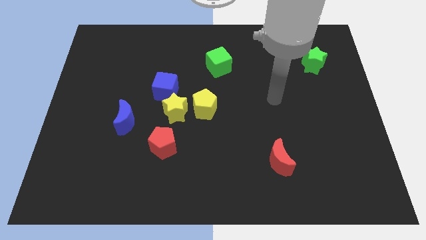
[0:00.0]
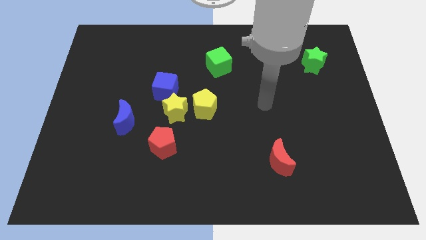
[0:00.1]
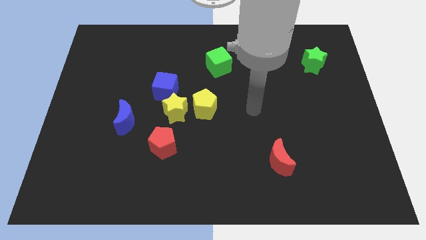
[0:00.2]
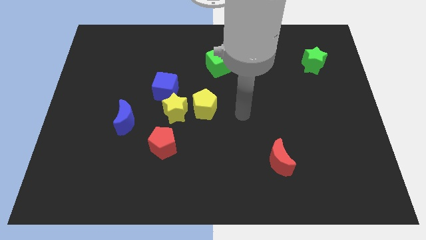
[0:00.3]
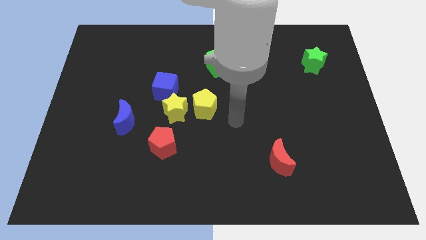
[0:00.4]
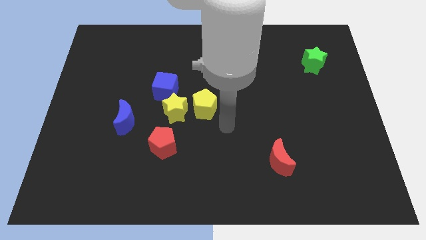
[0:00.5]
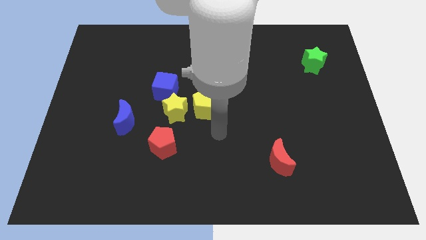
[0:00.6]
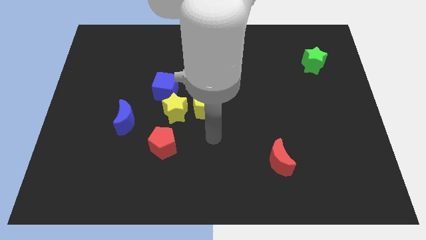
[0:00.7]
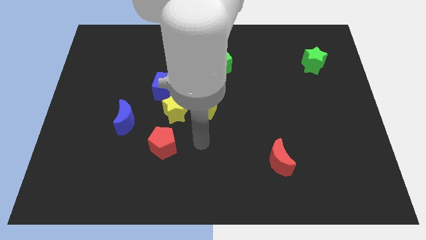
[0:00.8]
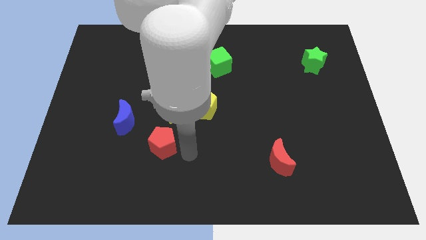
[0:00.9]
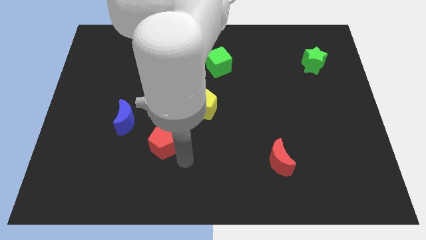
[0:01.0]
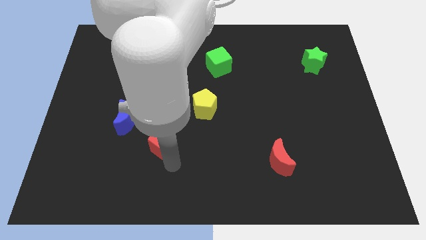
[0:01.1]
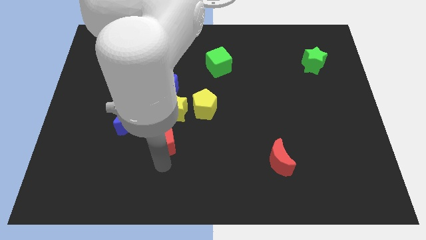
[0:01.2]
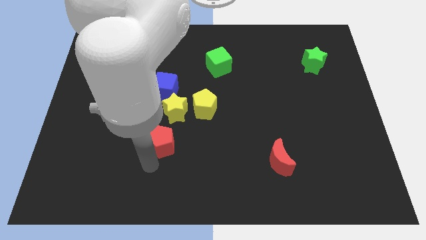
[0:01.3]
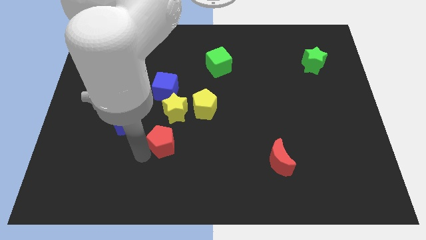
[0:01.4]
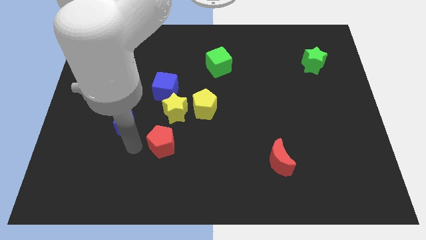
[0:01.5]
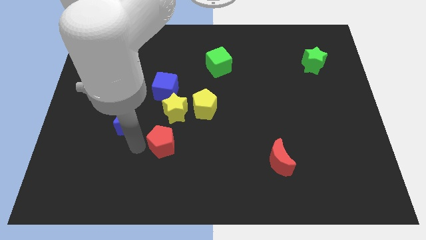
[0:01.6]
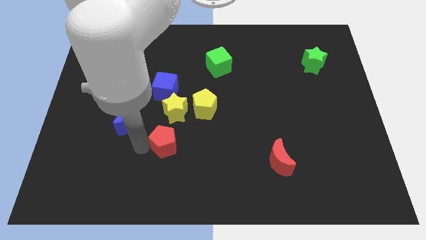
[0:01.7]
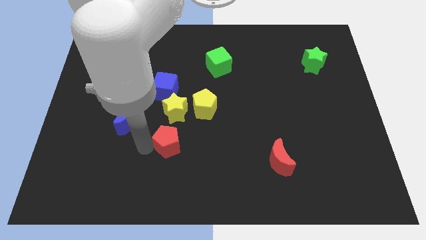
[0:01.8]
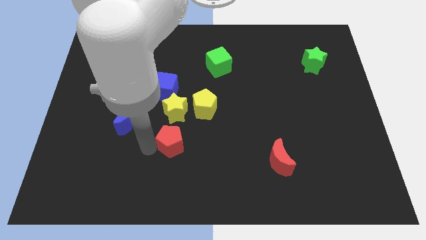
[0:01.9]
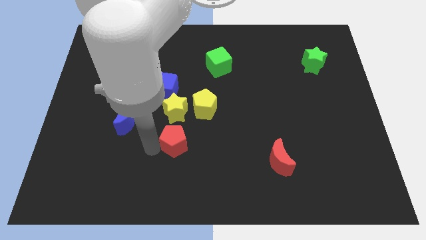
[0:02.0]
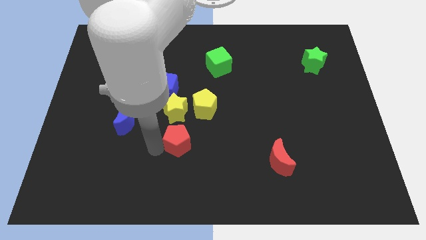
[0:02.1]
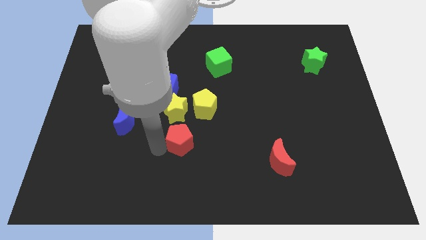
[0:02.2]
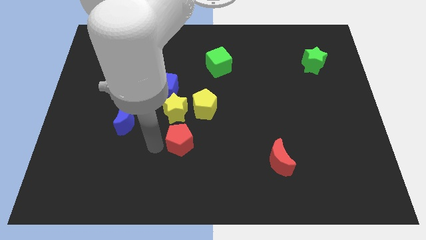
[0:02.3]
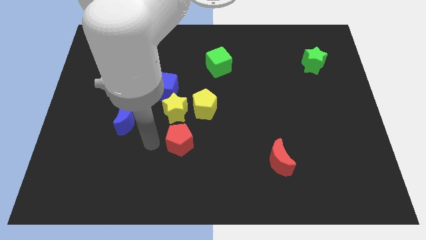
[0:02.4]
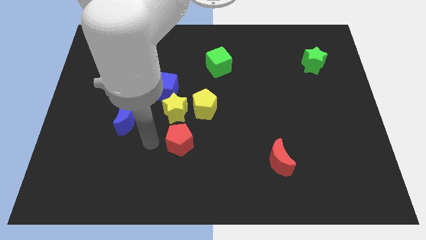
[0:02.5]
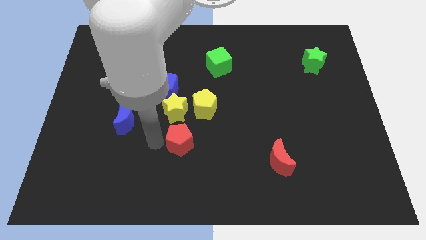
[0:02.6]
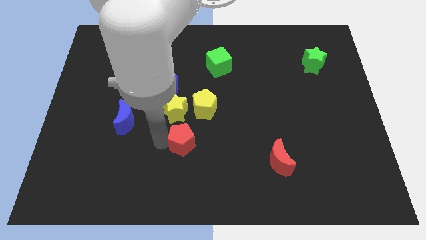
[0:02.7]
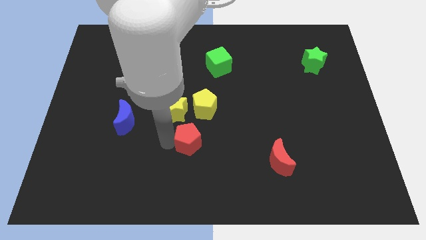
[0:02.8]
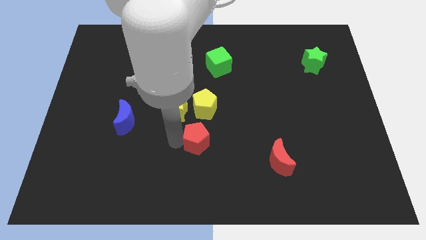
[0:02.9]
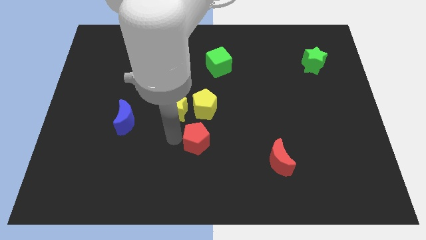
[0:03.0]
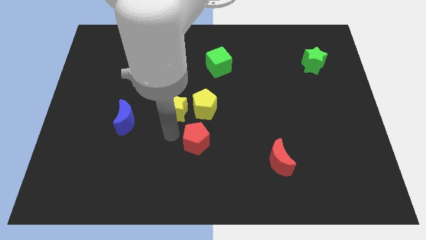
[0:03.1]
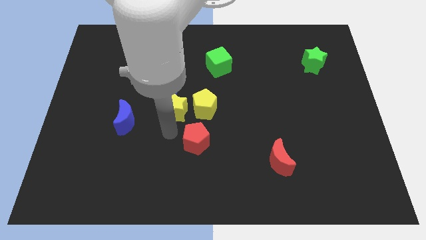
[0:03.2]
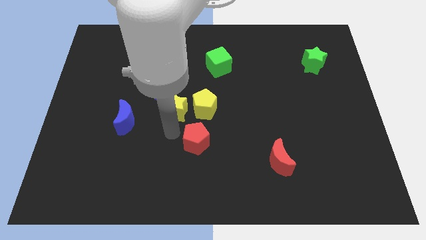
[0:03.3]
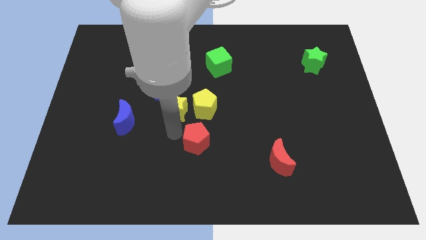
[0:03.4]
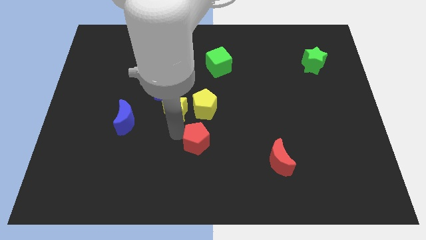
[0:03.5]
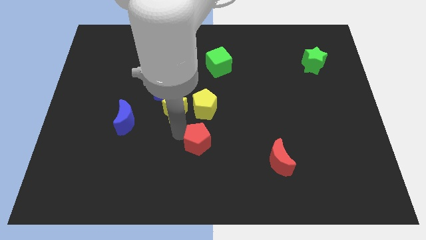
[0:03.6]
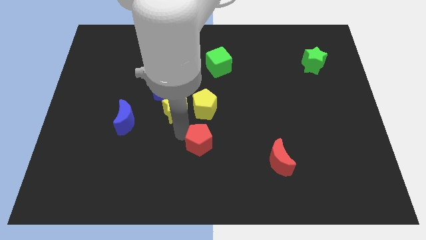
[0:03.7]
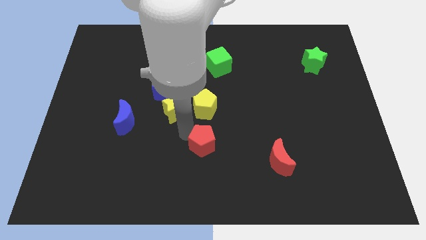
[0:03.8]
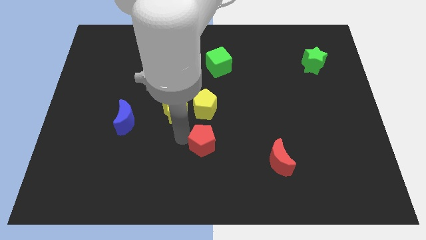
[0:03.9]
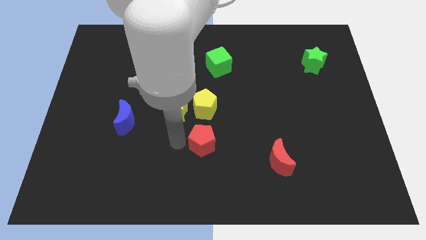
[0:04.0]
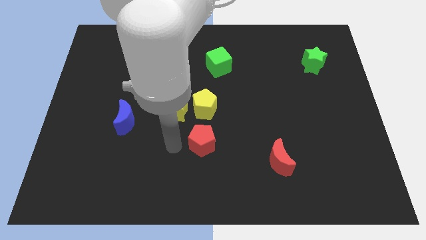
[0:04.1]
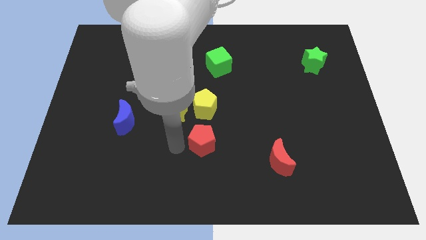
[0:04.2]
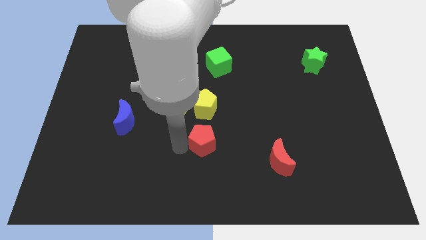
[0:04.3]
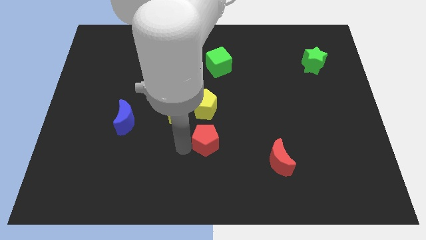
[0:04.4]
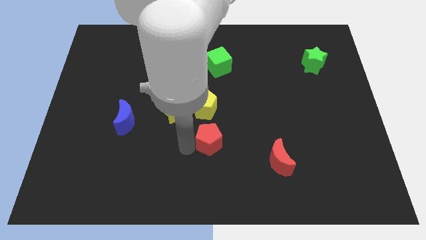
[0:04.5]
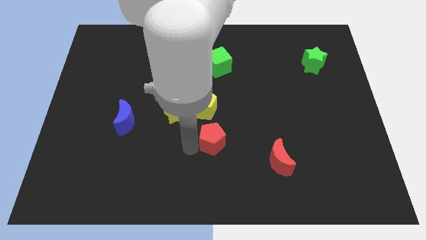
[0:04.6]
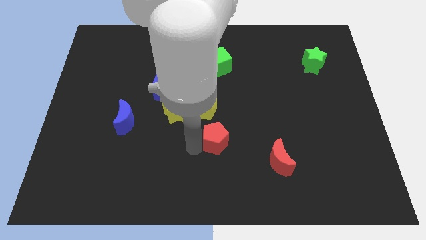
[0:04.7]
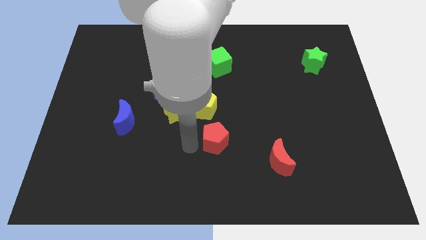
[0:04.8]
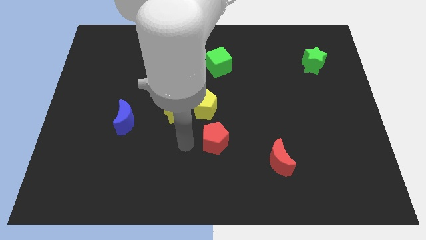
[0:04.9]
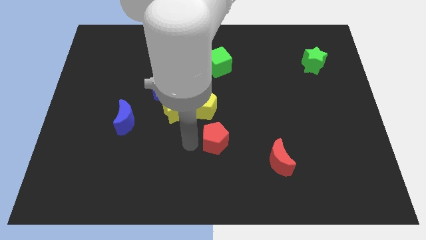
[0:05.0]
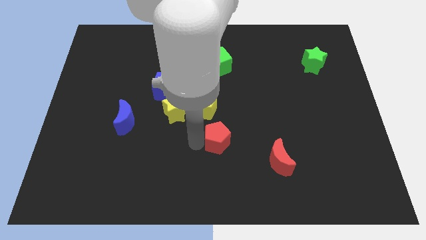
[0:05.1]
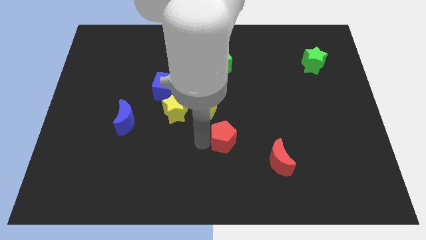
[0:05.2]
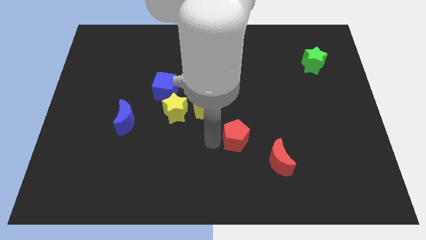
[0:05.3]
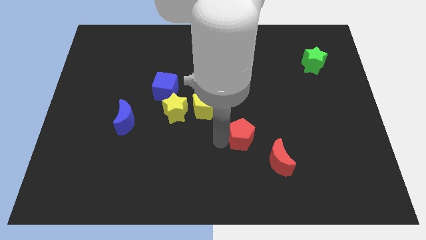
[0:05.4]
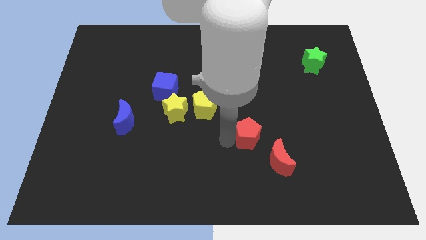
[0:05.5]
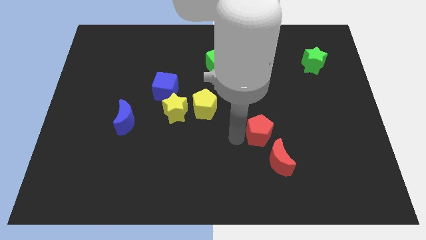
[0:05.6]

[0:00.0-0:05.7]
slide the red pentagon to the right

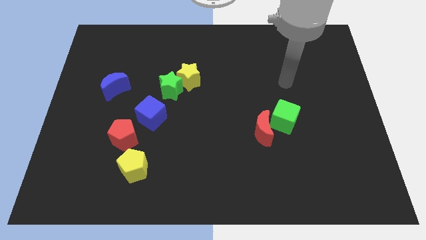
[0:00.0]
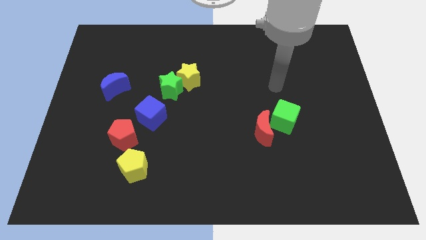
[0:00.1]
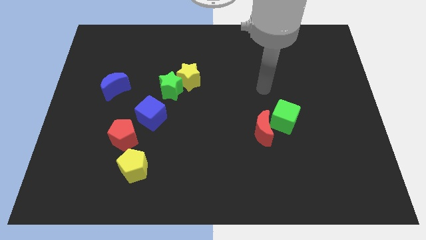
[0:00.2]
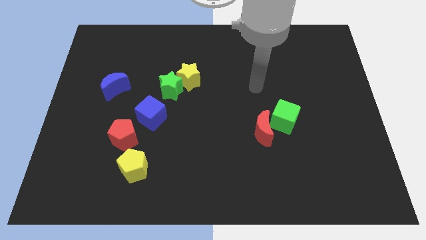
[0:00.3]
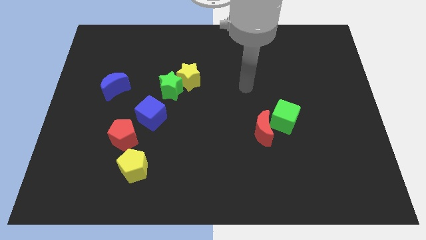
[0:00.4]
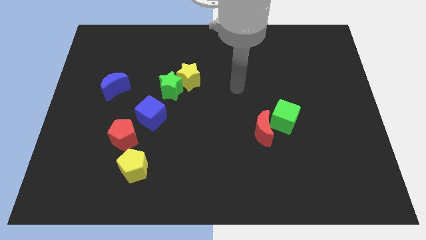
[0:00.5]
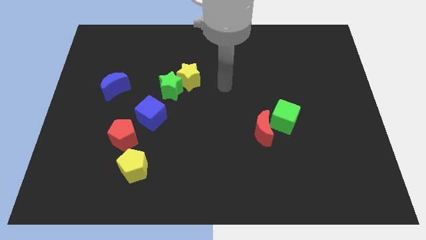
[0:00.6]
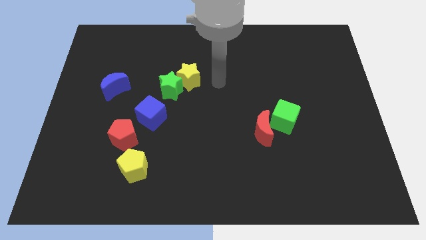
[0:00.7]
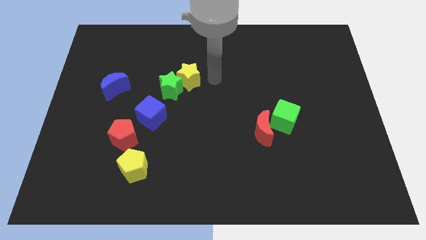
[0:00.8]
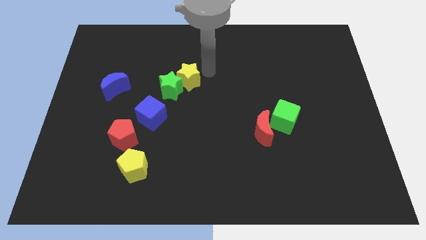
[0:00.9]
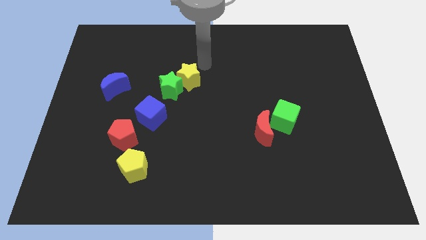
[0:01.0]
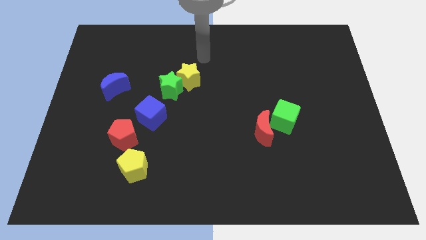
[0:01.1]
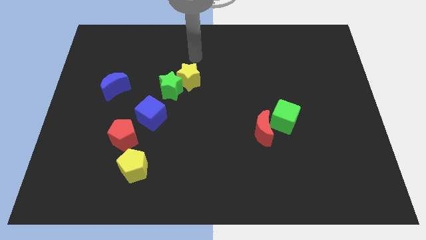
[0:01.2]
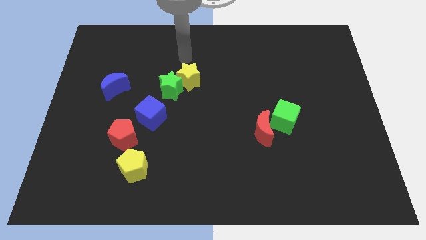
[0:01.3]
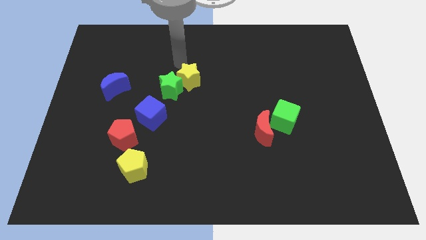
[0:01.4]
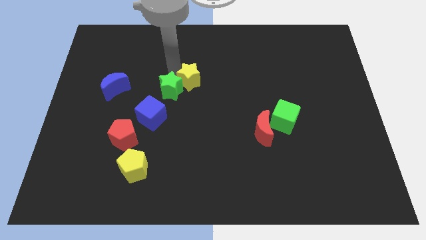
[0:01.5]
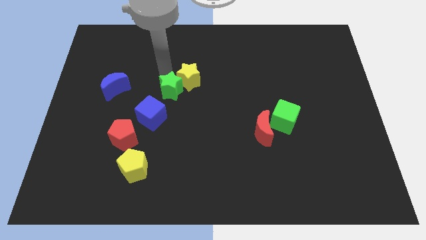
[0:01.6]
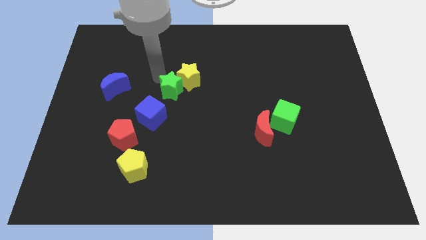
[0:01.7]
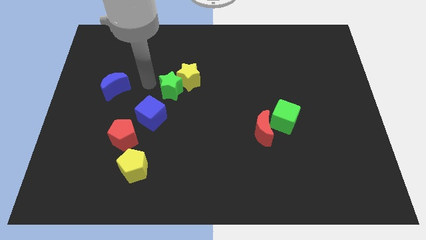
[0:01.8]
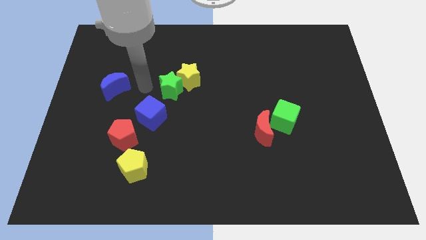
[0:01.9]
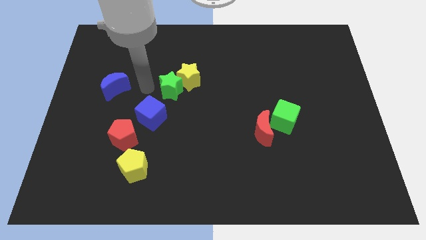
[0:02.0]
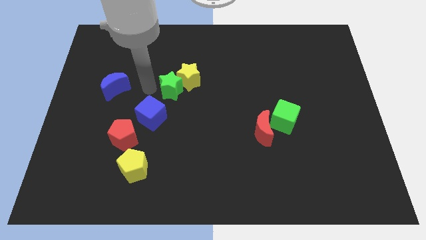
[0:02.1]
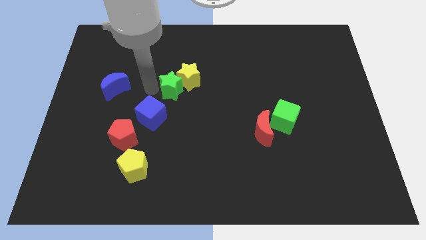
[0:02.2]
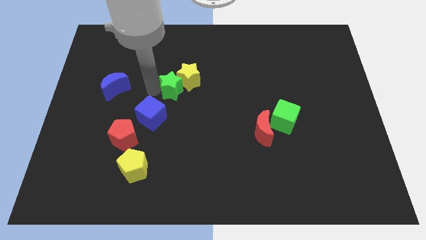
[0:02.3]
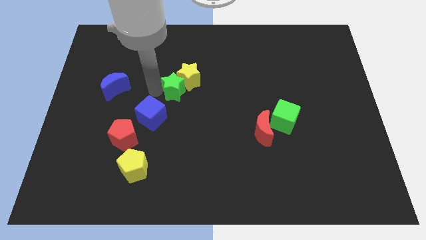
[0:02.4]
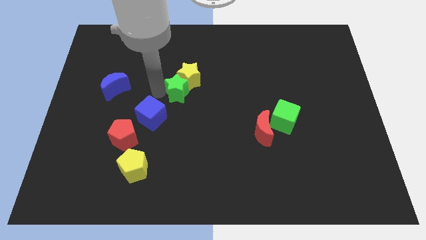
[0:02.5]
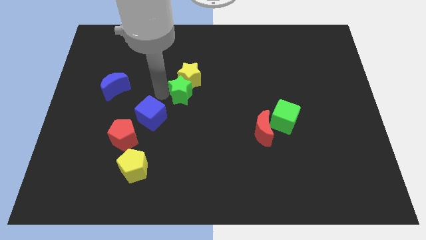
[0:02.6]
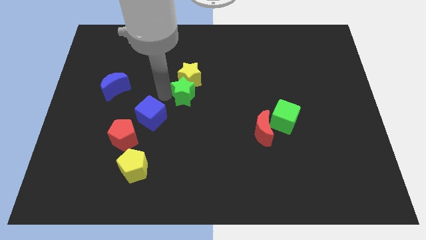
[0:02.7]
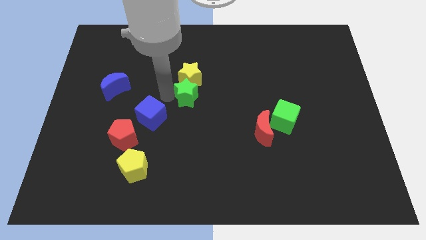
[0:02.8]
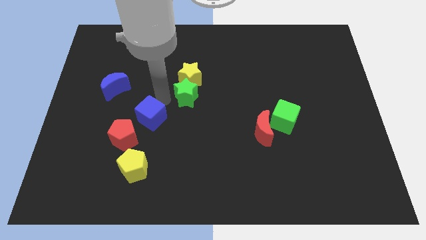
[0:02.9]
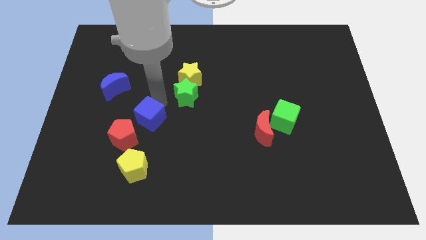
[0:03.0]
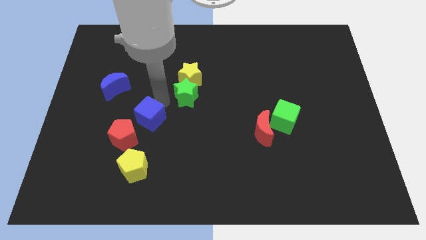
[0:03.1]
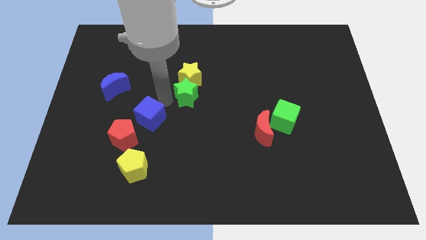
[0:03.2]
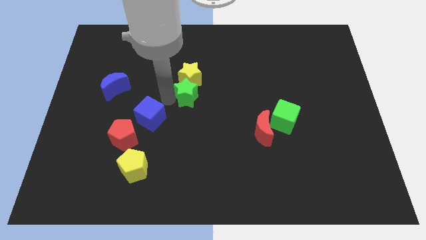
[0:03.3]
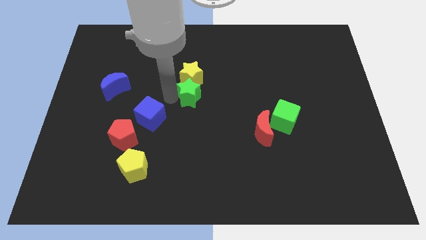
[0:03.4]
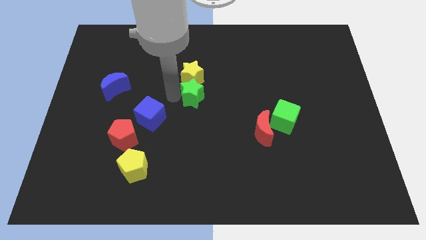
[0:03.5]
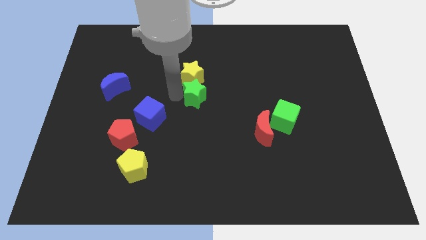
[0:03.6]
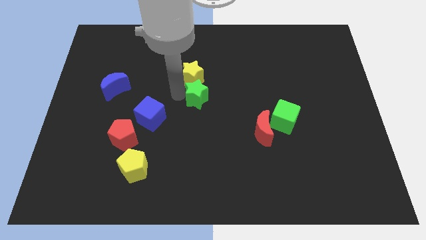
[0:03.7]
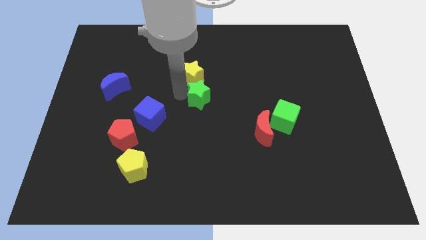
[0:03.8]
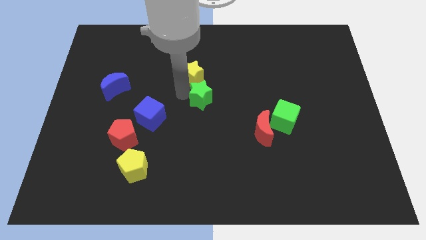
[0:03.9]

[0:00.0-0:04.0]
move the green star a little bit to the right
